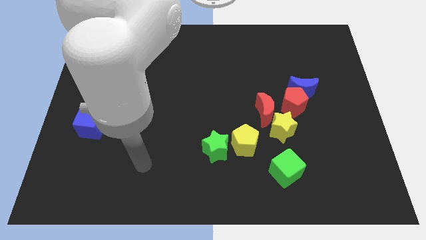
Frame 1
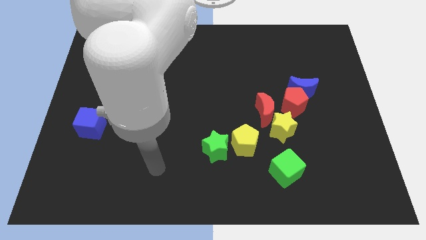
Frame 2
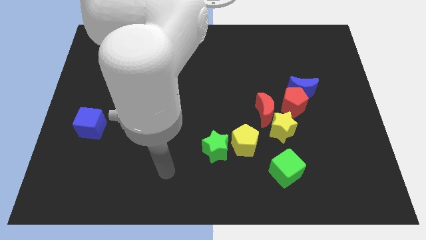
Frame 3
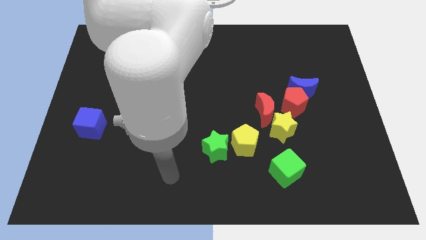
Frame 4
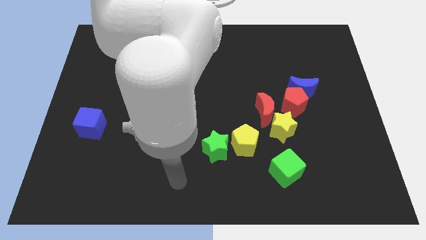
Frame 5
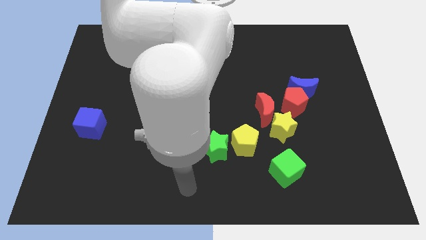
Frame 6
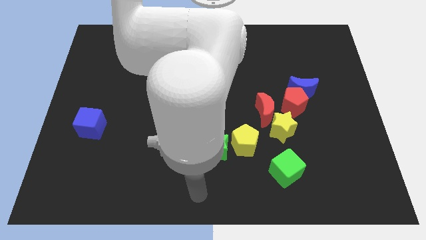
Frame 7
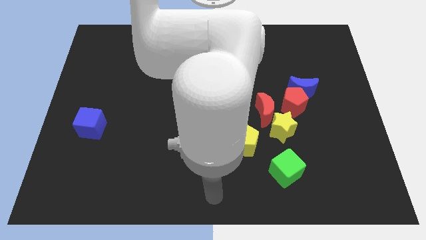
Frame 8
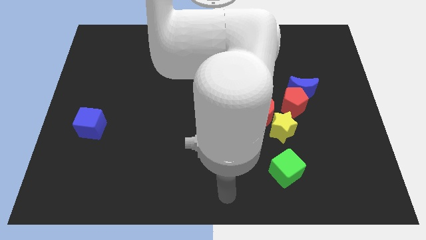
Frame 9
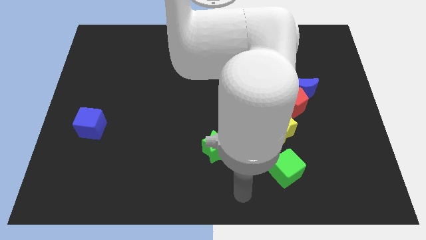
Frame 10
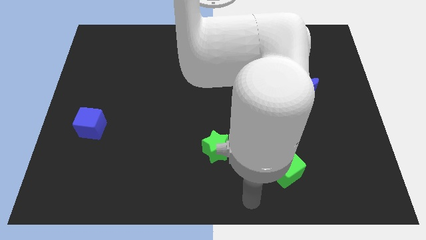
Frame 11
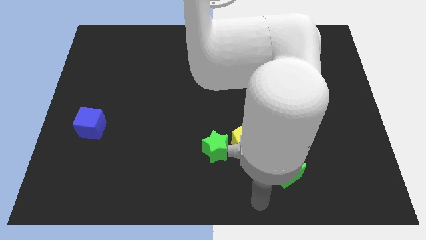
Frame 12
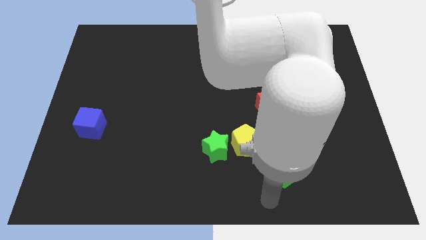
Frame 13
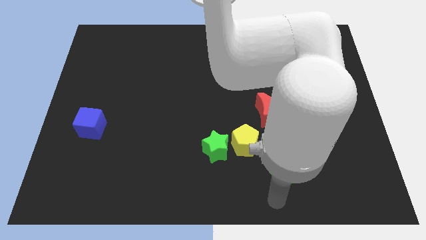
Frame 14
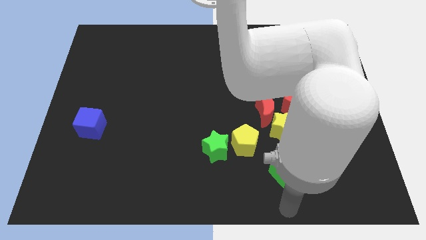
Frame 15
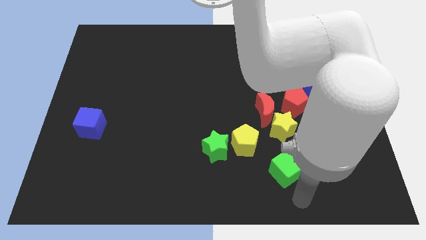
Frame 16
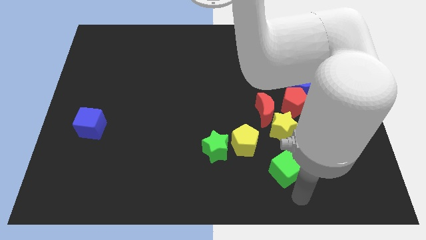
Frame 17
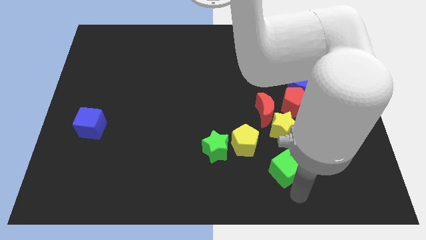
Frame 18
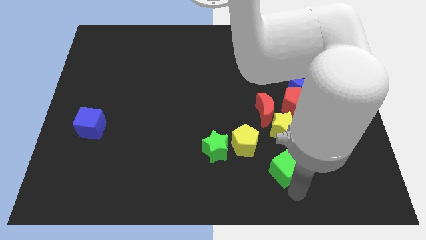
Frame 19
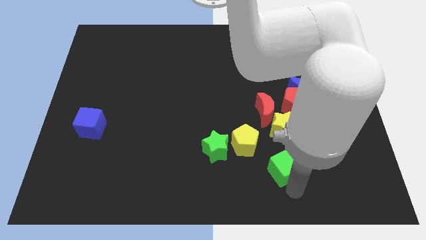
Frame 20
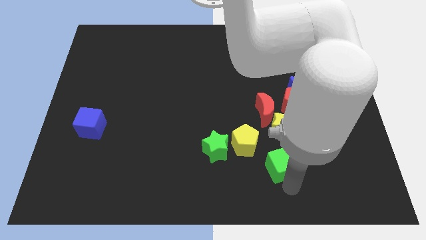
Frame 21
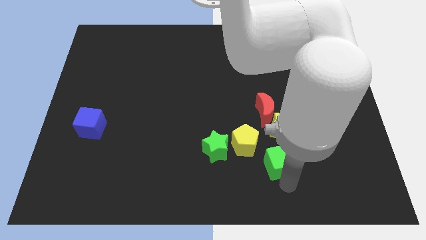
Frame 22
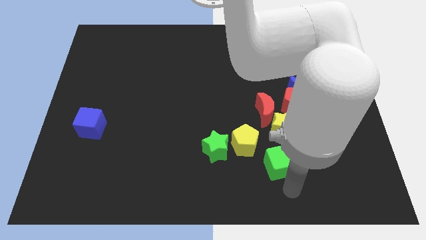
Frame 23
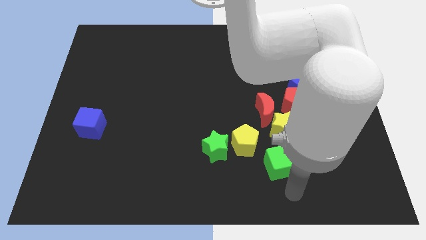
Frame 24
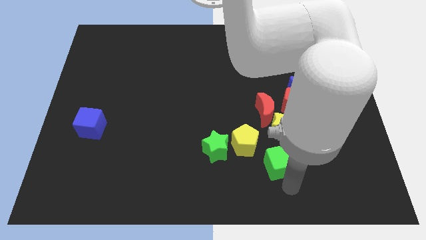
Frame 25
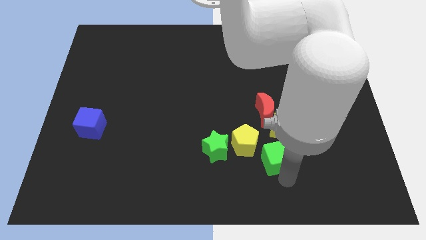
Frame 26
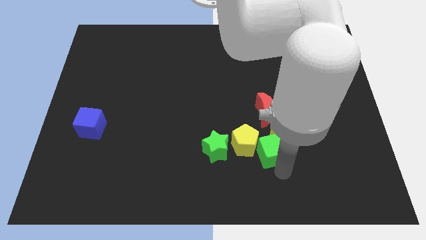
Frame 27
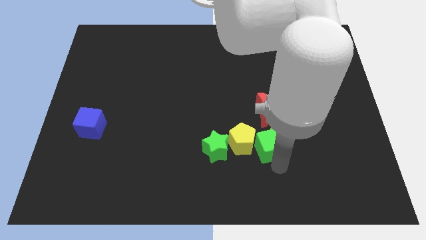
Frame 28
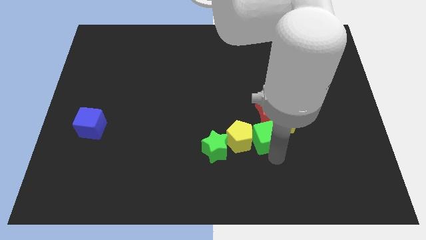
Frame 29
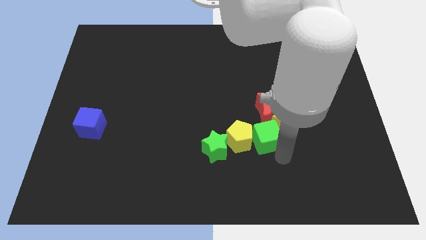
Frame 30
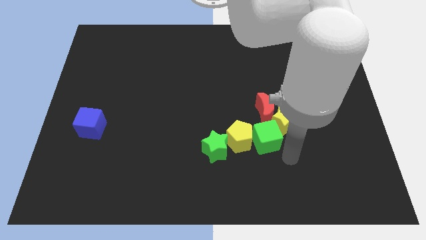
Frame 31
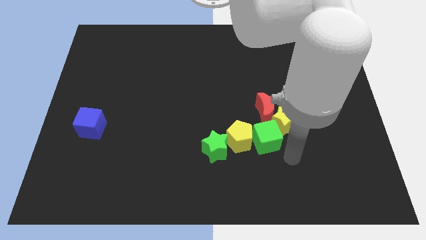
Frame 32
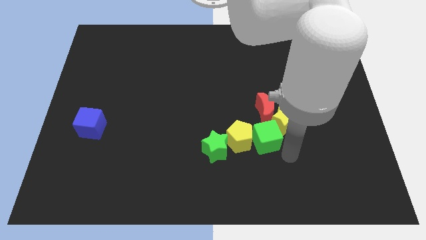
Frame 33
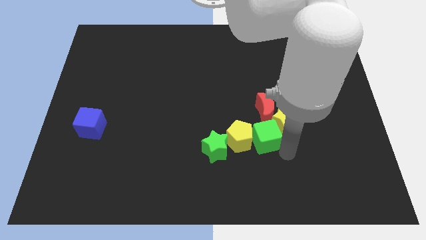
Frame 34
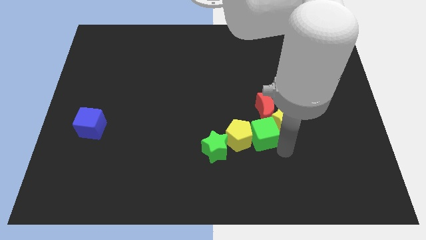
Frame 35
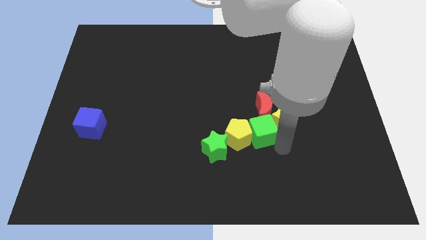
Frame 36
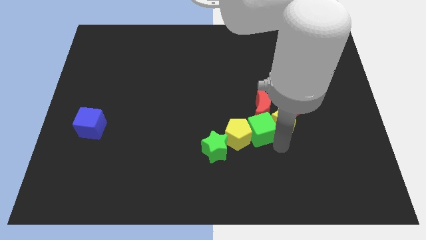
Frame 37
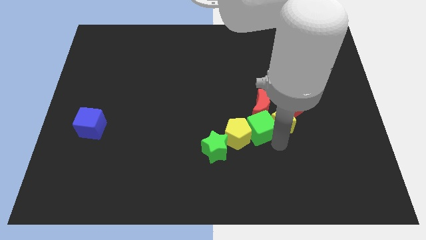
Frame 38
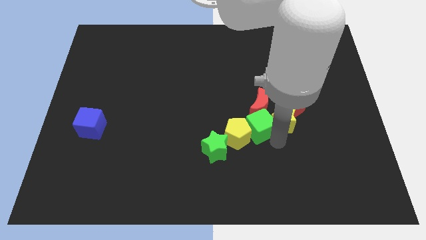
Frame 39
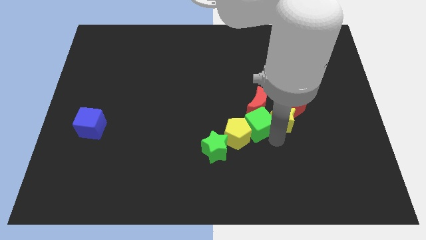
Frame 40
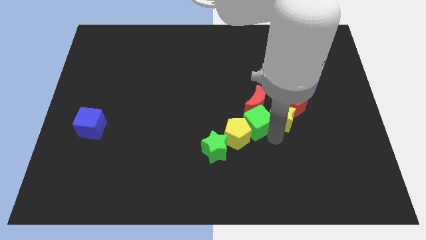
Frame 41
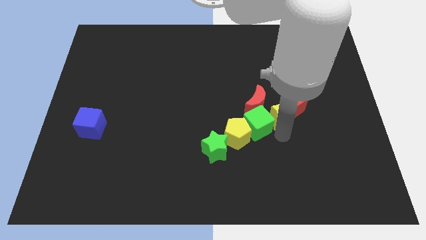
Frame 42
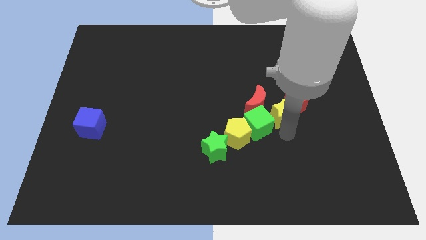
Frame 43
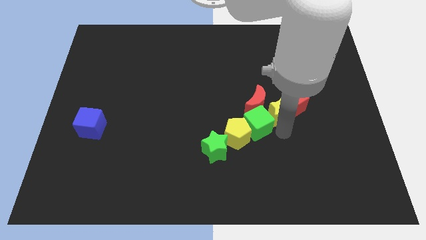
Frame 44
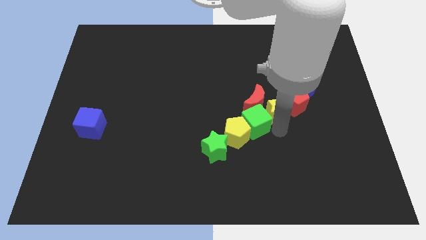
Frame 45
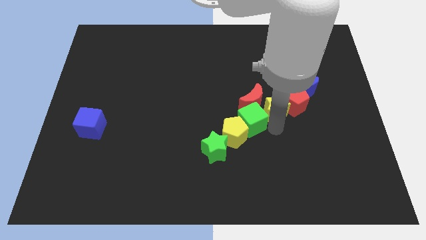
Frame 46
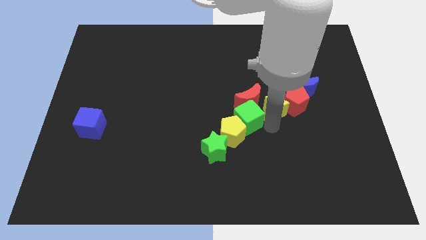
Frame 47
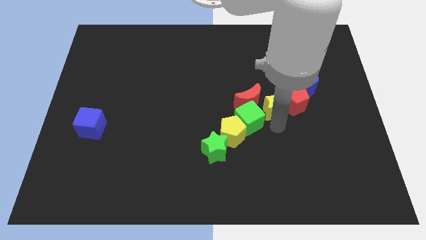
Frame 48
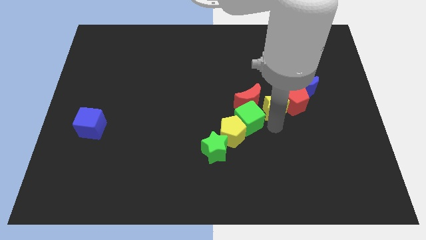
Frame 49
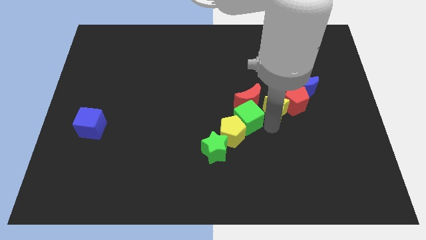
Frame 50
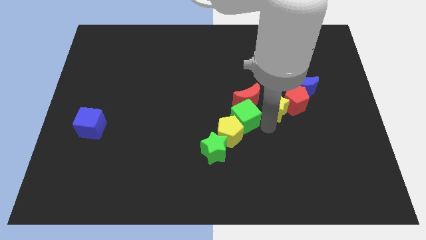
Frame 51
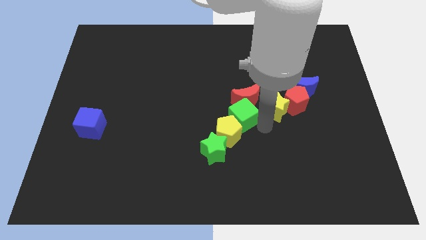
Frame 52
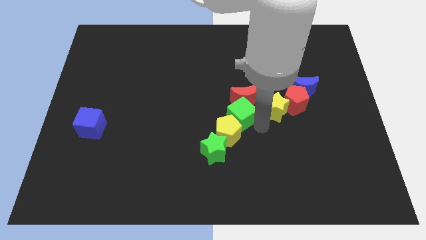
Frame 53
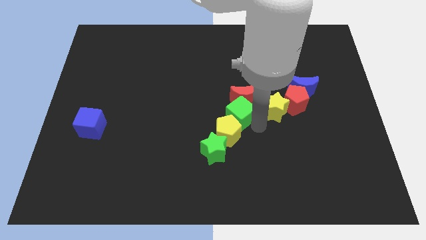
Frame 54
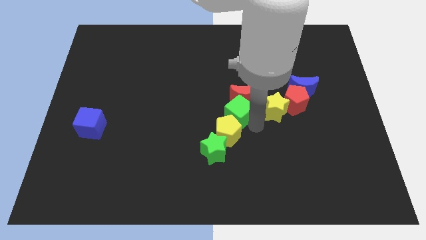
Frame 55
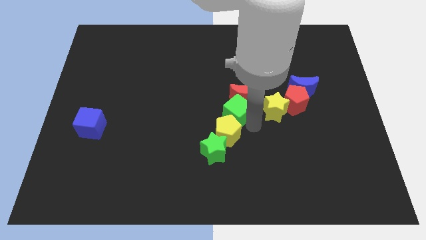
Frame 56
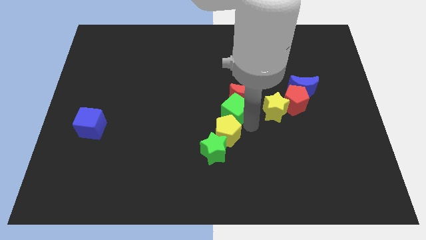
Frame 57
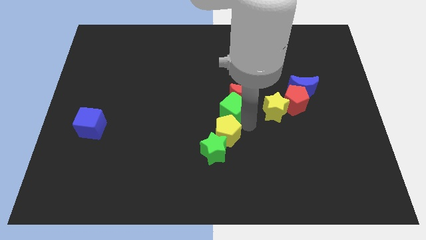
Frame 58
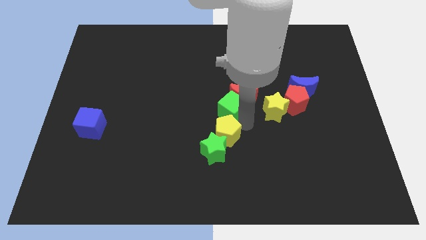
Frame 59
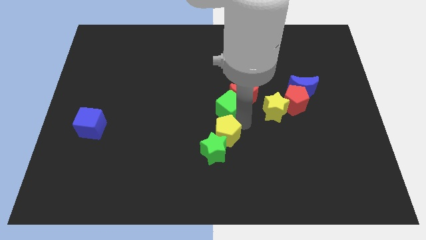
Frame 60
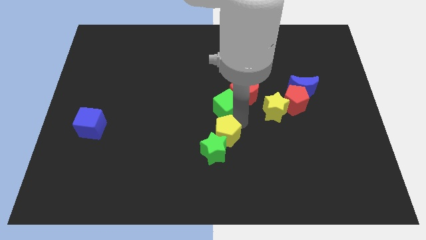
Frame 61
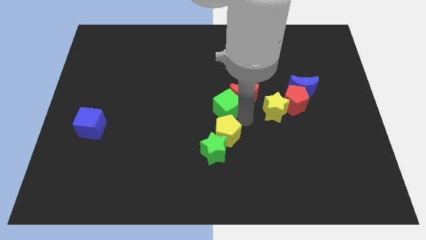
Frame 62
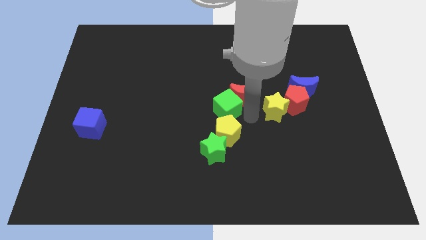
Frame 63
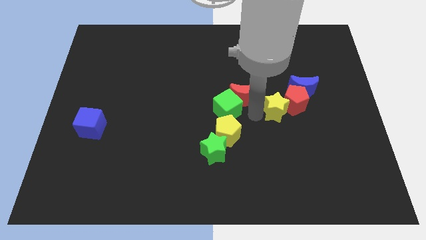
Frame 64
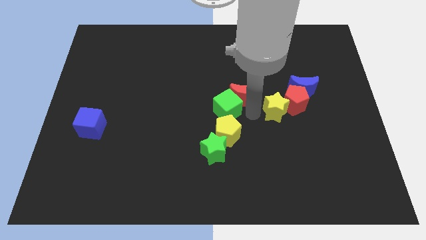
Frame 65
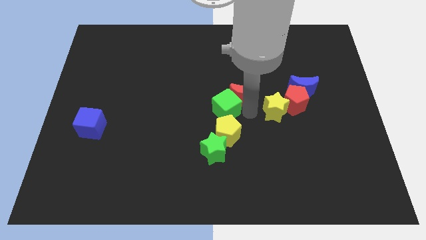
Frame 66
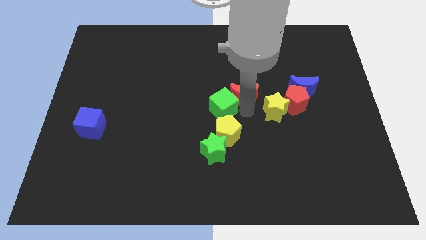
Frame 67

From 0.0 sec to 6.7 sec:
push the green cube up and to the left

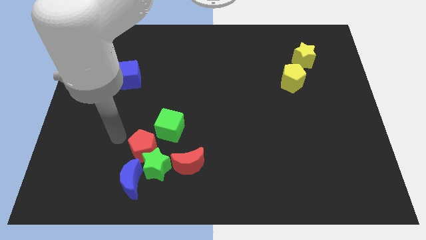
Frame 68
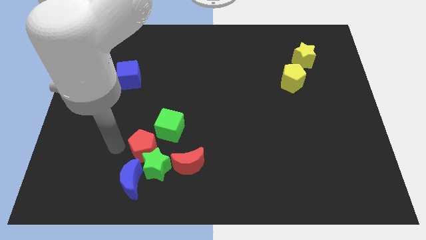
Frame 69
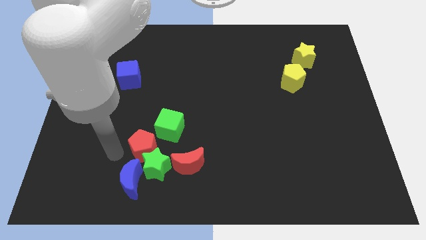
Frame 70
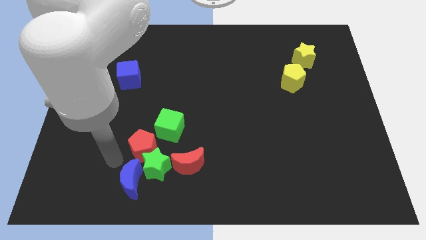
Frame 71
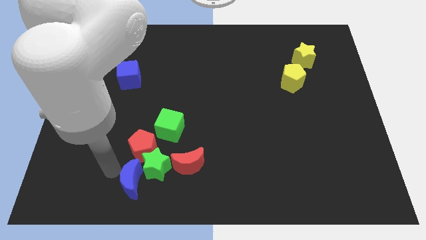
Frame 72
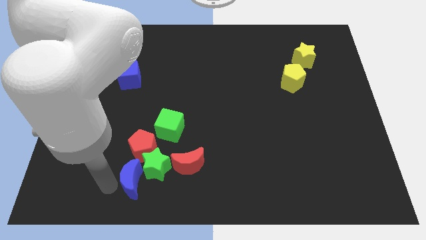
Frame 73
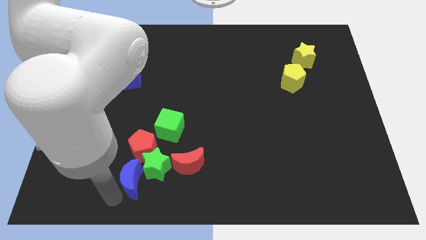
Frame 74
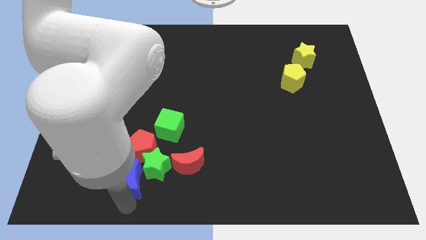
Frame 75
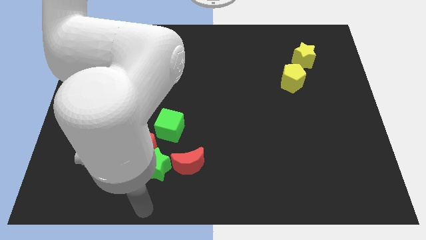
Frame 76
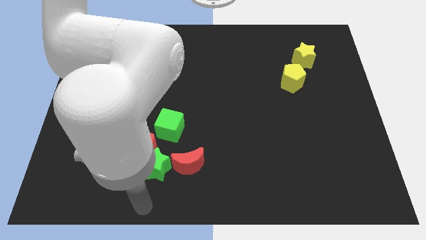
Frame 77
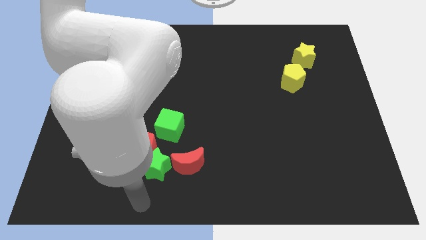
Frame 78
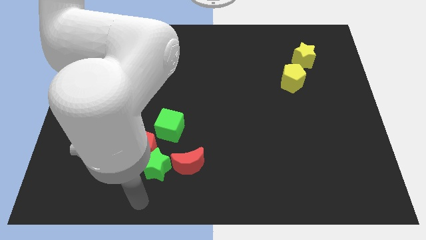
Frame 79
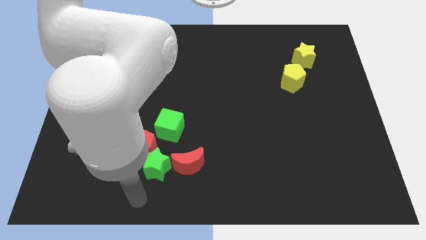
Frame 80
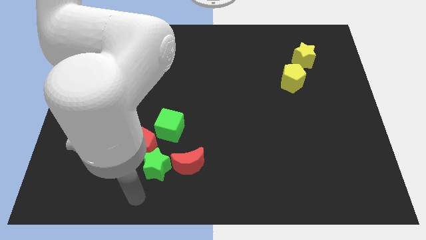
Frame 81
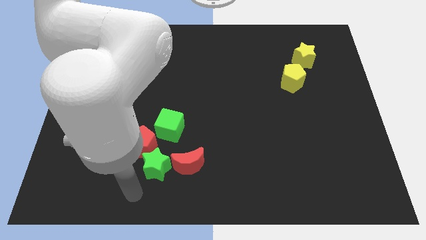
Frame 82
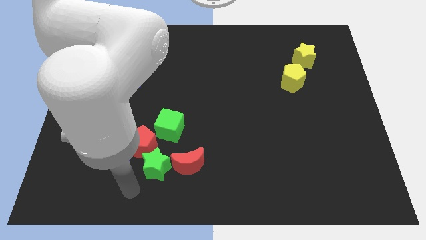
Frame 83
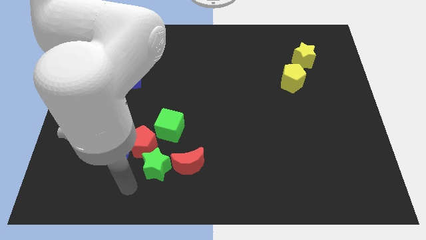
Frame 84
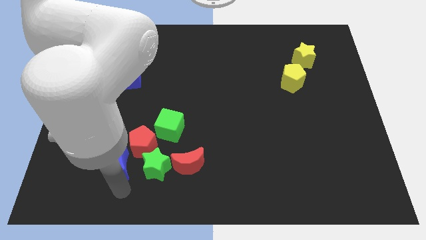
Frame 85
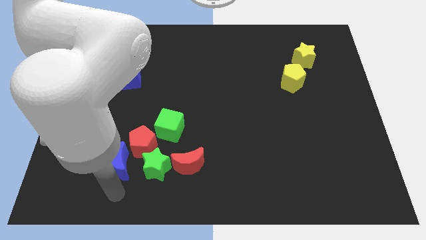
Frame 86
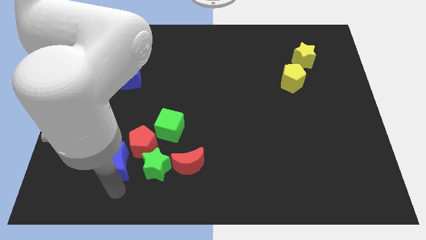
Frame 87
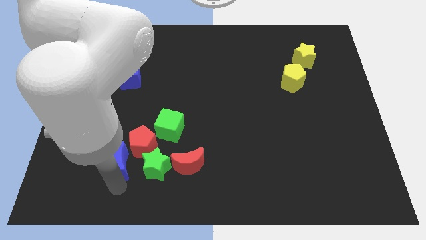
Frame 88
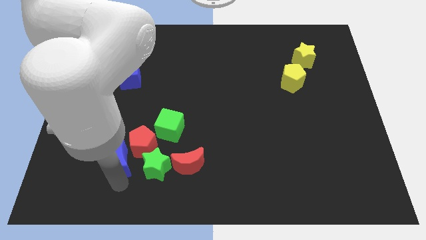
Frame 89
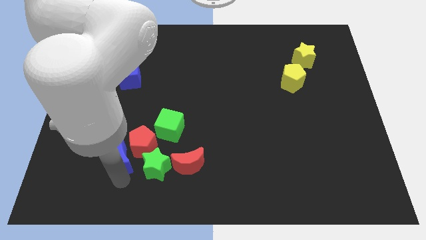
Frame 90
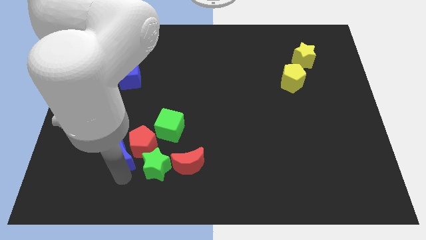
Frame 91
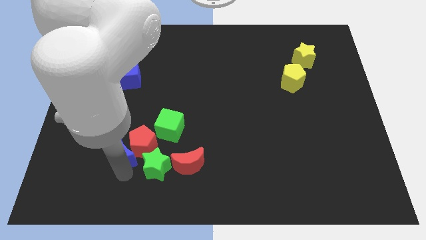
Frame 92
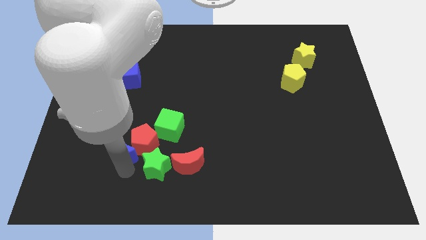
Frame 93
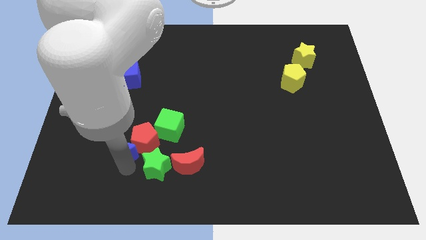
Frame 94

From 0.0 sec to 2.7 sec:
slide the blue moon upwards slightly
